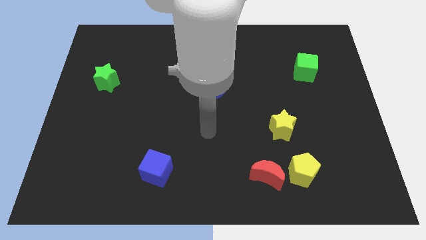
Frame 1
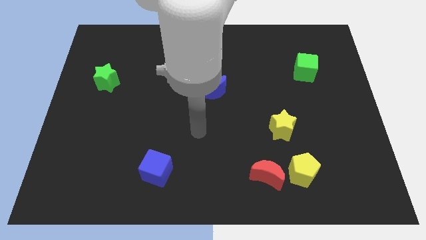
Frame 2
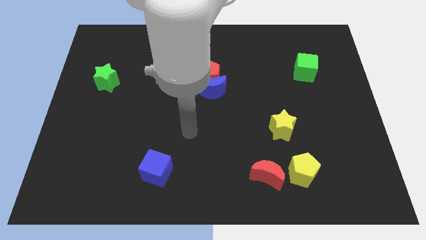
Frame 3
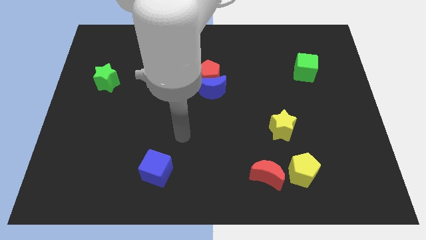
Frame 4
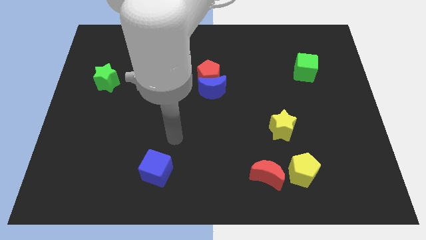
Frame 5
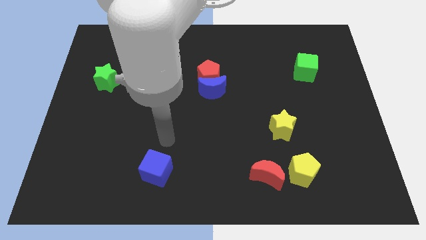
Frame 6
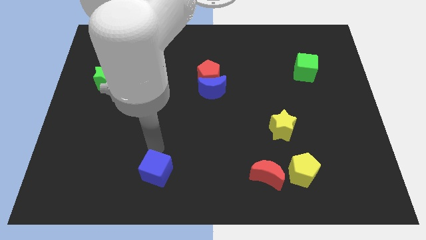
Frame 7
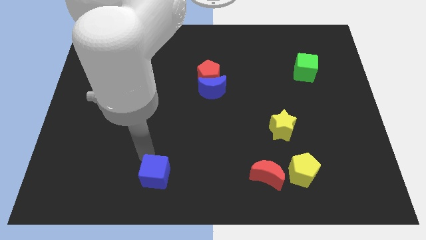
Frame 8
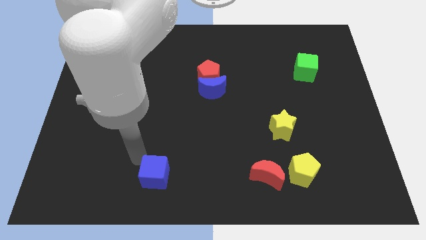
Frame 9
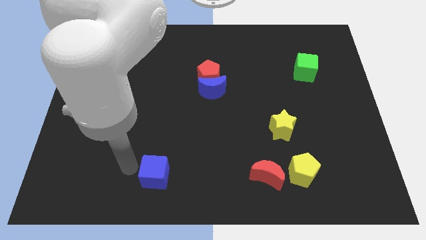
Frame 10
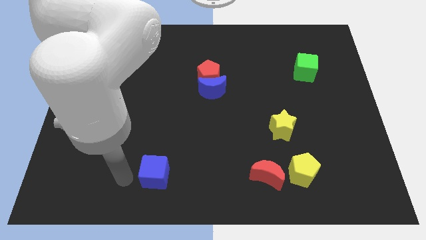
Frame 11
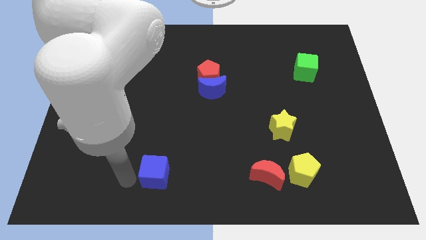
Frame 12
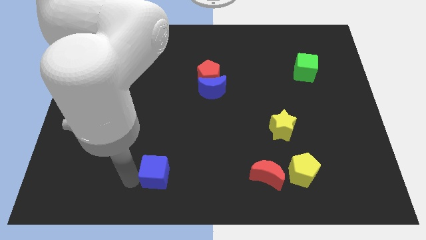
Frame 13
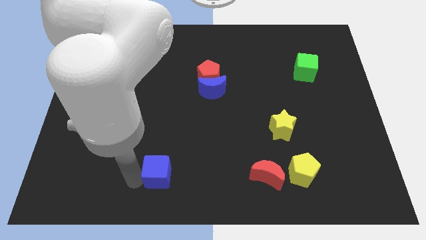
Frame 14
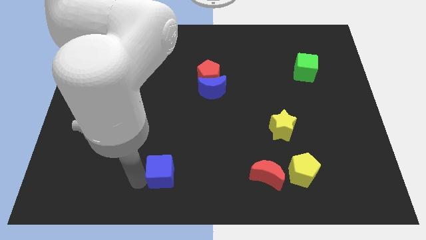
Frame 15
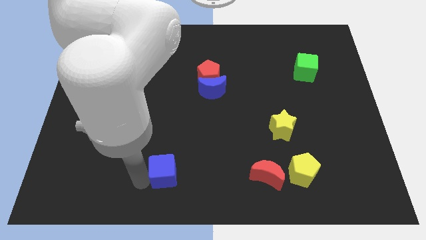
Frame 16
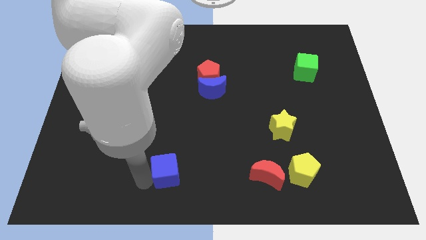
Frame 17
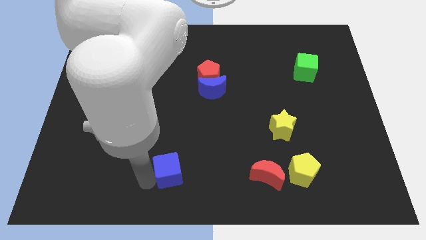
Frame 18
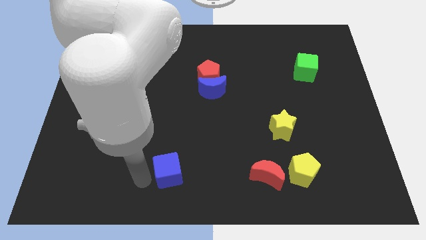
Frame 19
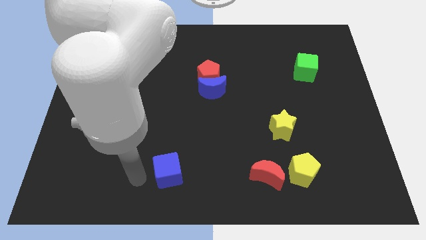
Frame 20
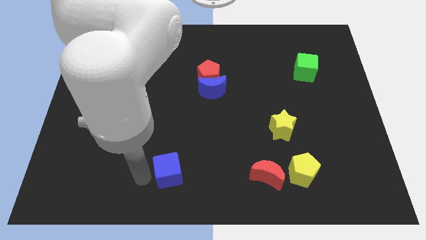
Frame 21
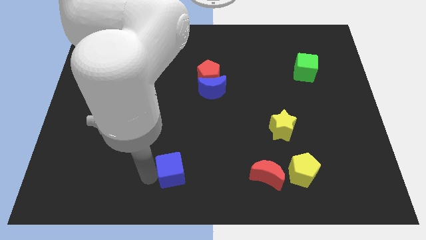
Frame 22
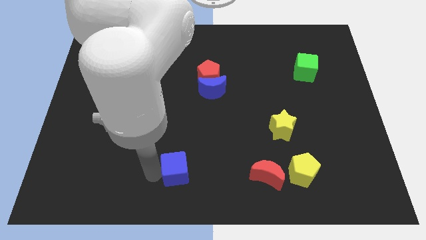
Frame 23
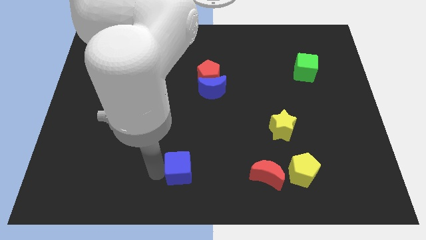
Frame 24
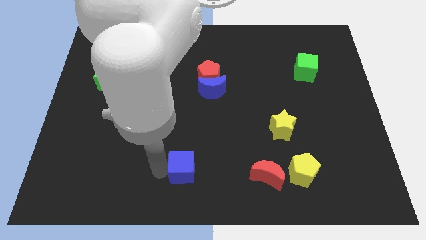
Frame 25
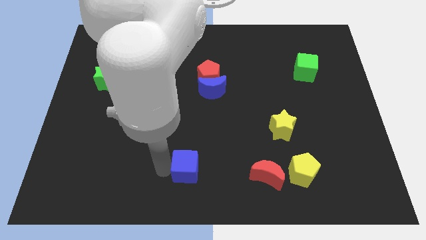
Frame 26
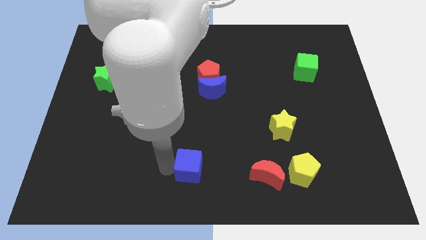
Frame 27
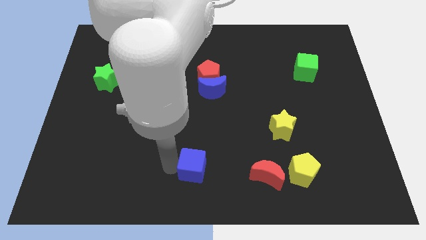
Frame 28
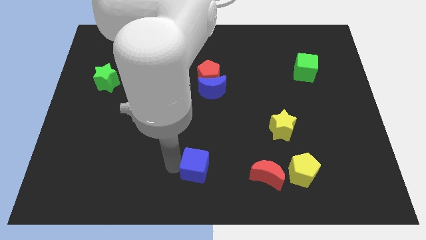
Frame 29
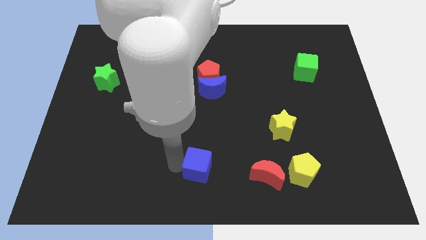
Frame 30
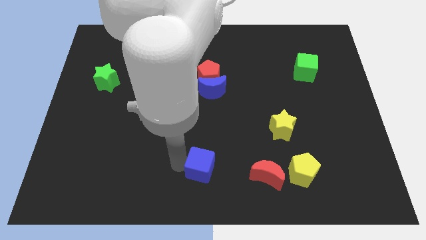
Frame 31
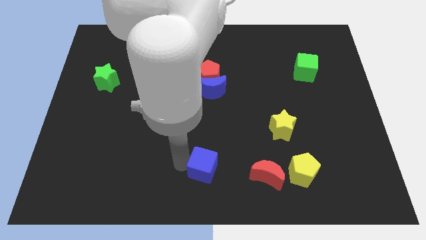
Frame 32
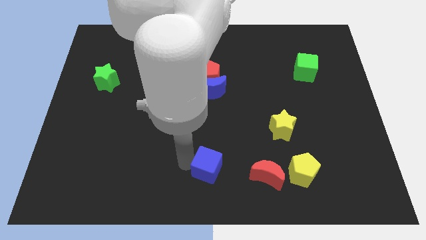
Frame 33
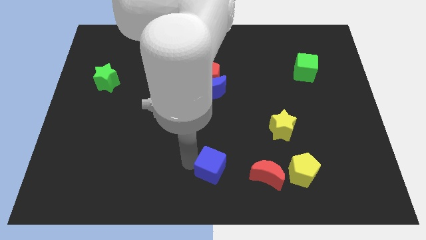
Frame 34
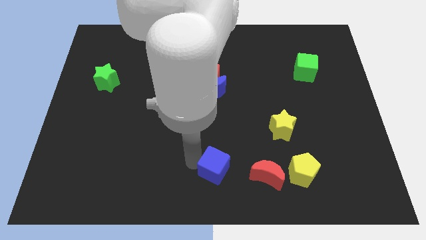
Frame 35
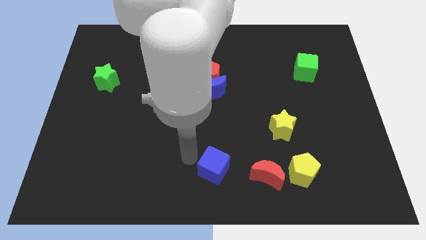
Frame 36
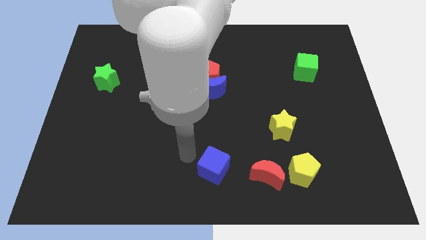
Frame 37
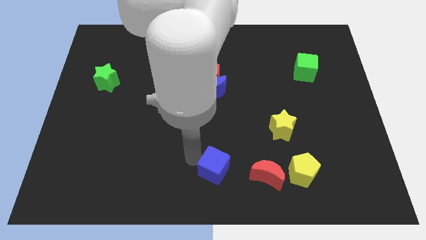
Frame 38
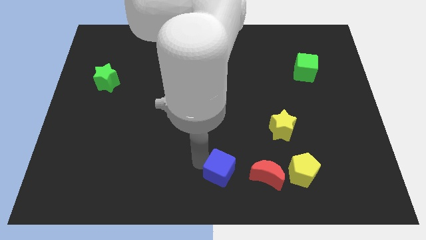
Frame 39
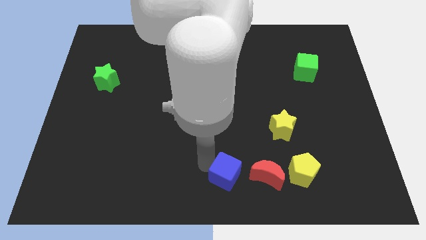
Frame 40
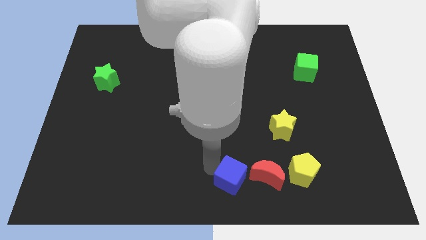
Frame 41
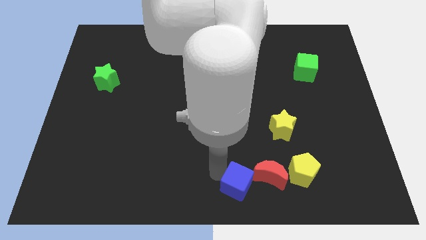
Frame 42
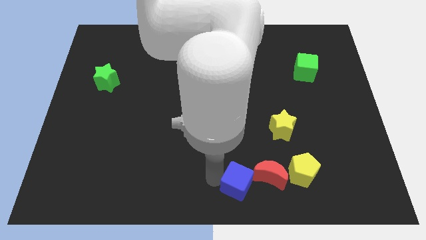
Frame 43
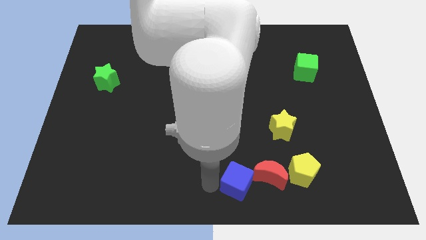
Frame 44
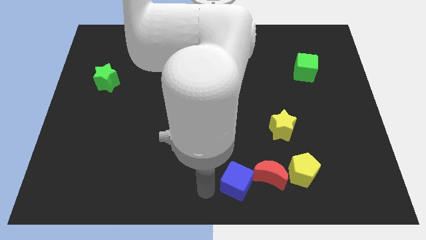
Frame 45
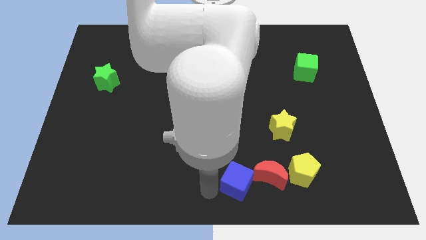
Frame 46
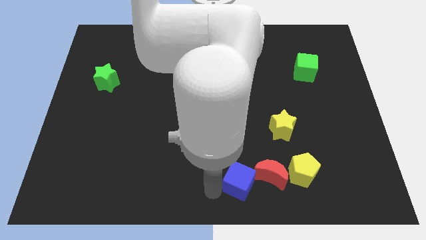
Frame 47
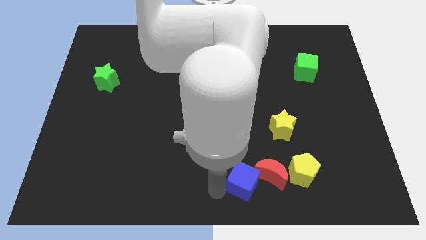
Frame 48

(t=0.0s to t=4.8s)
move the blue cube towards the red moon

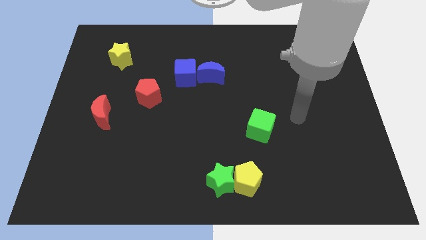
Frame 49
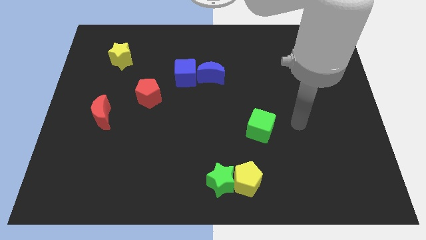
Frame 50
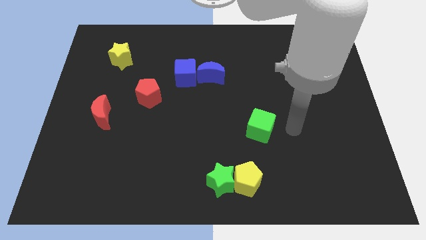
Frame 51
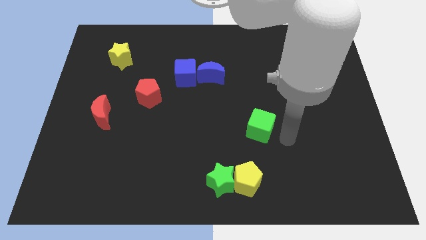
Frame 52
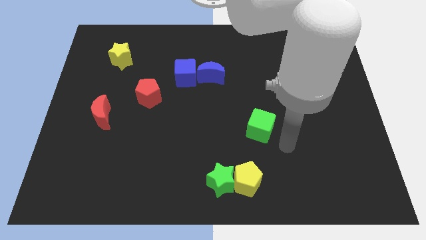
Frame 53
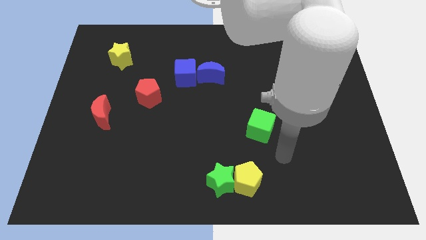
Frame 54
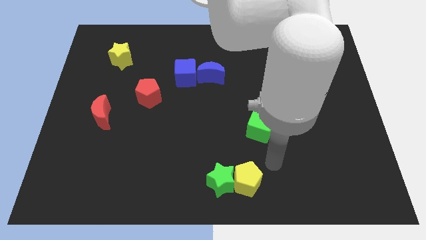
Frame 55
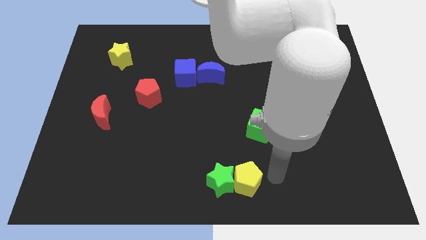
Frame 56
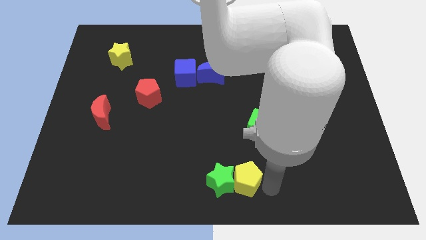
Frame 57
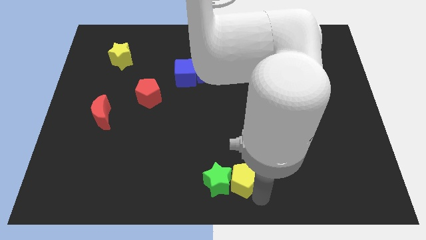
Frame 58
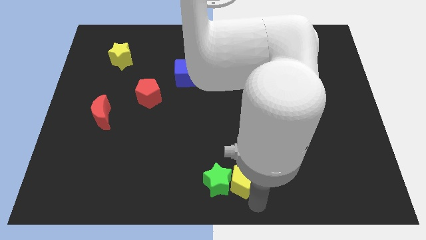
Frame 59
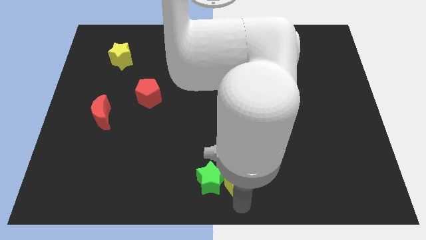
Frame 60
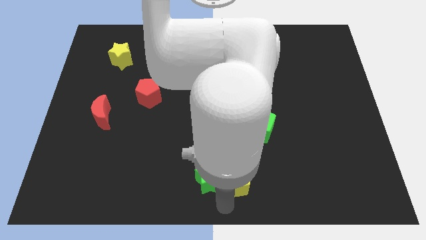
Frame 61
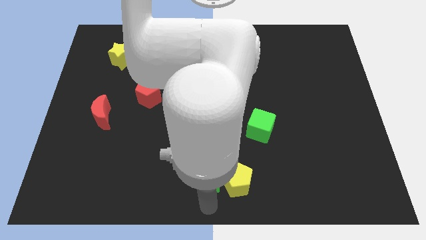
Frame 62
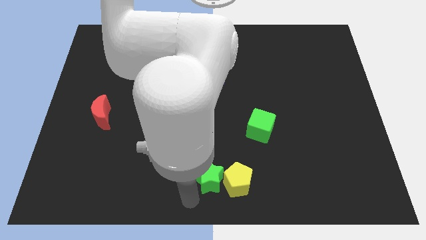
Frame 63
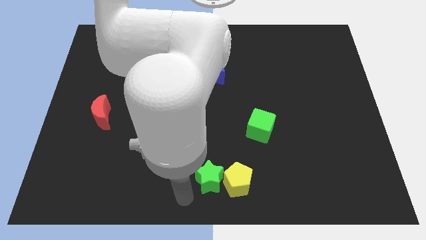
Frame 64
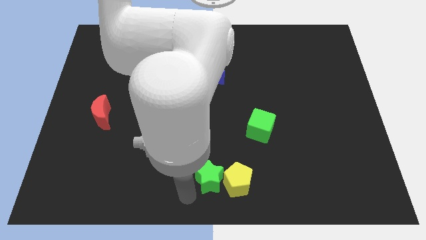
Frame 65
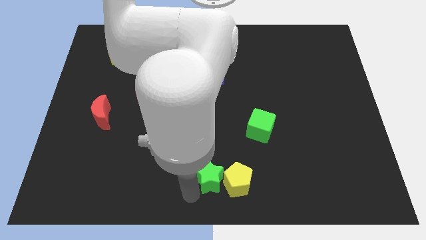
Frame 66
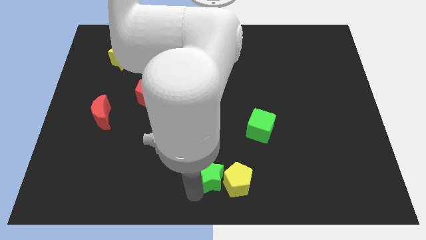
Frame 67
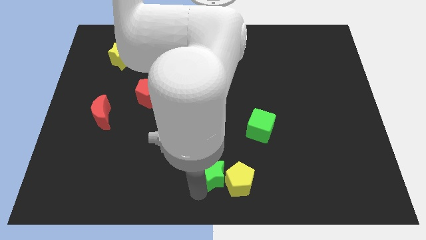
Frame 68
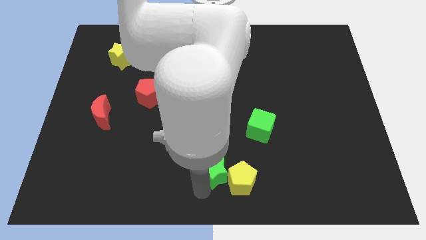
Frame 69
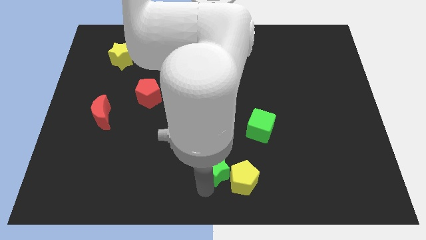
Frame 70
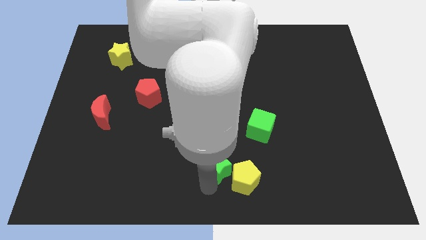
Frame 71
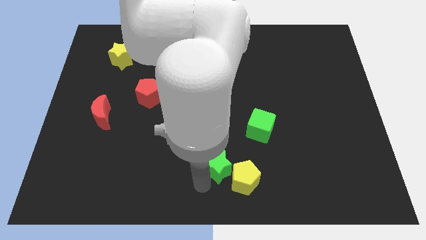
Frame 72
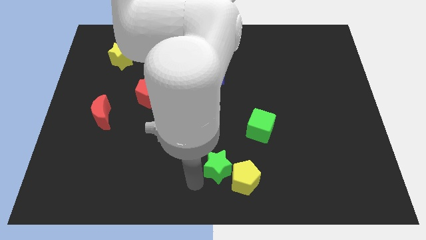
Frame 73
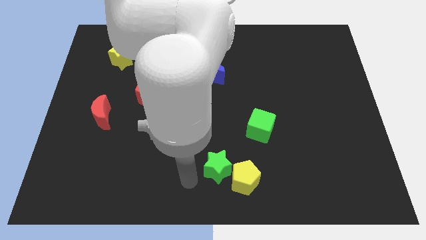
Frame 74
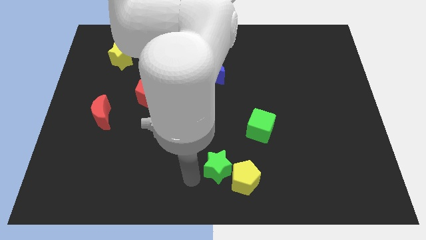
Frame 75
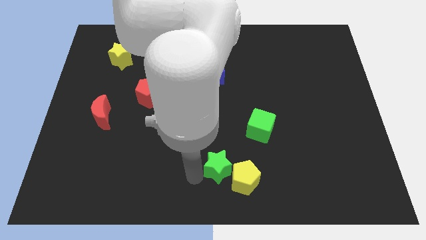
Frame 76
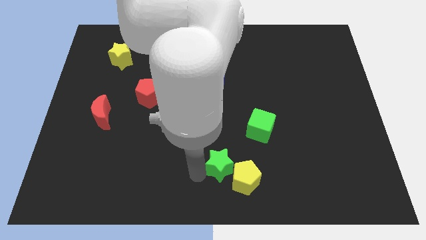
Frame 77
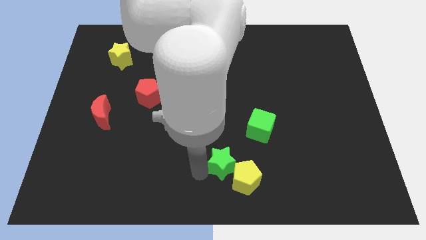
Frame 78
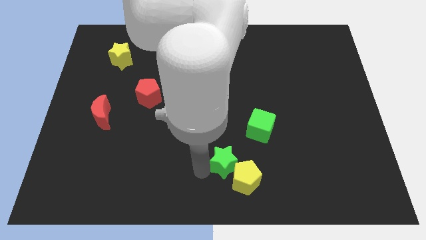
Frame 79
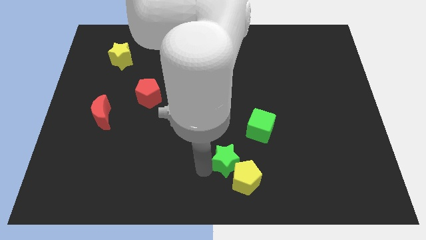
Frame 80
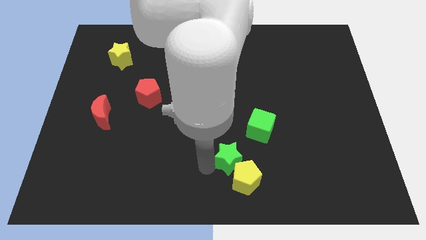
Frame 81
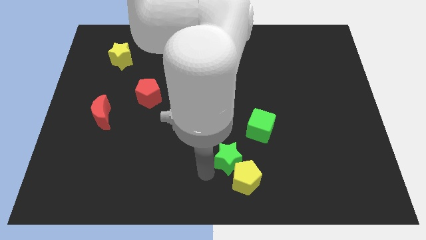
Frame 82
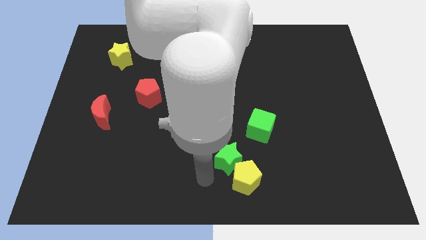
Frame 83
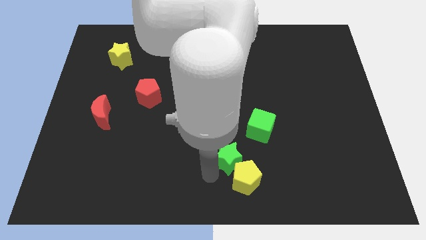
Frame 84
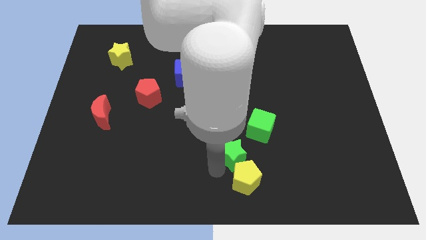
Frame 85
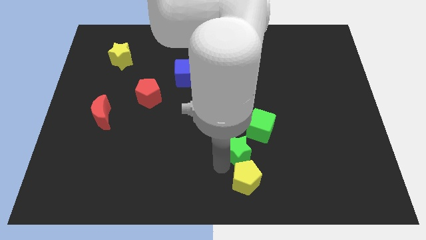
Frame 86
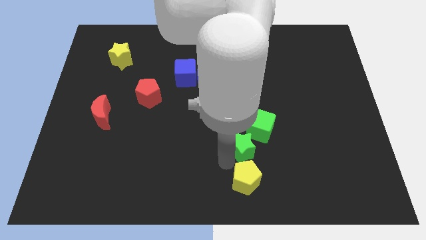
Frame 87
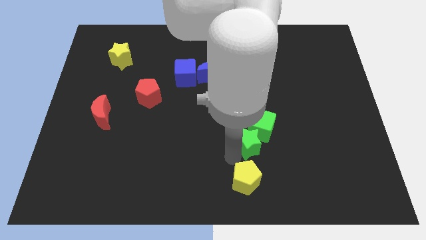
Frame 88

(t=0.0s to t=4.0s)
slide the green star towards the green cube
